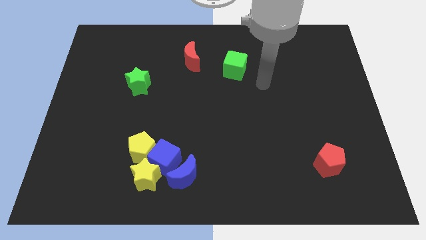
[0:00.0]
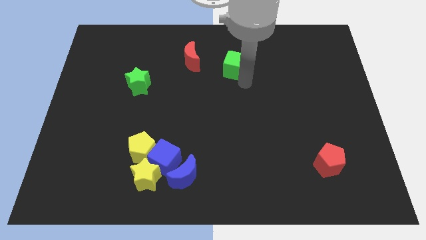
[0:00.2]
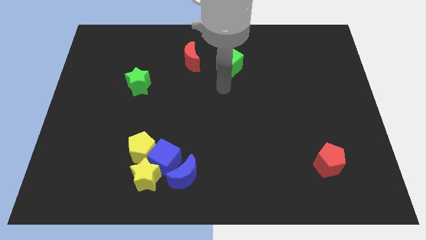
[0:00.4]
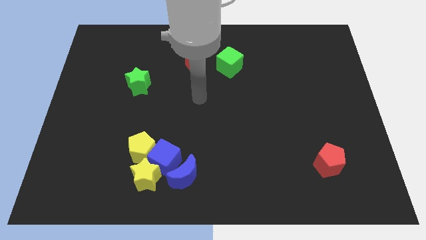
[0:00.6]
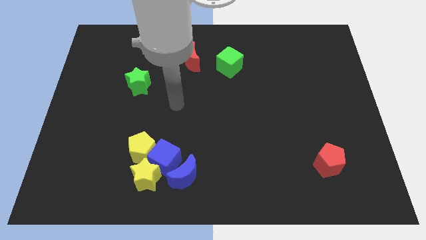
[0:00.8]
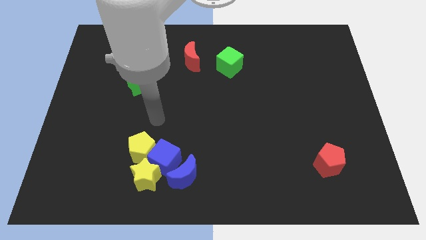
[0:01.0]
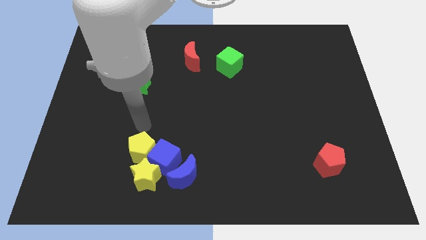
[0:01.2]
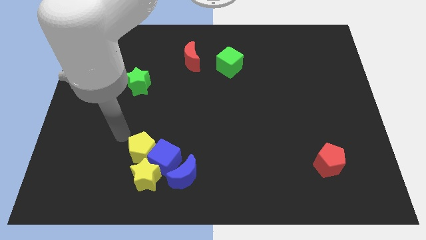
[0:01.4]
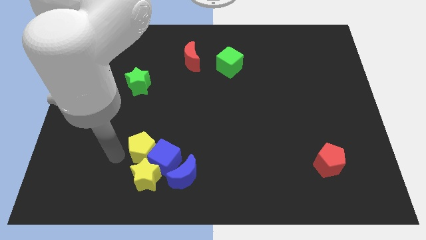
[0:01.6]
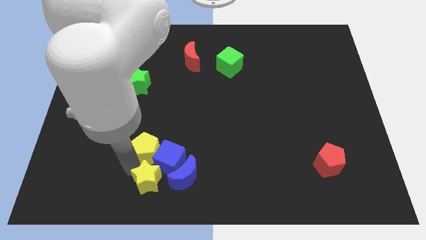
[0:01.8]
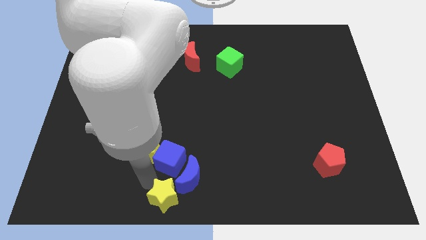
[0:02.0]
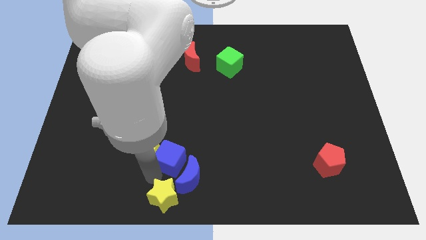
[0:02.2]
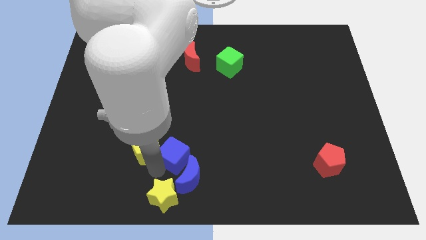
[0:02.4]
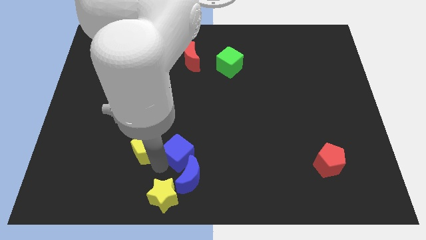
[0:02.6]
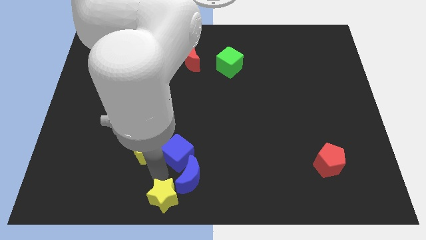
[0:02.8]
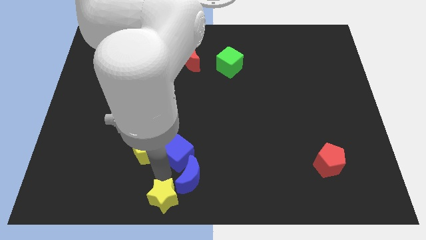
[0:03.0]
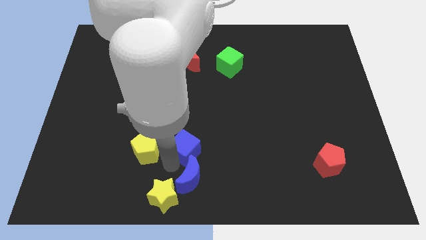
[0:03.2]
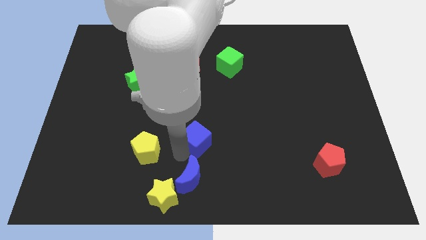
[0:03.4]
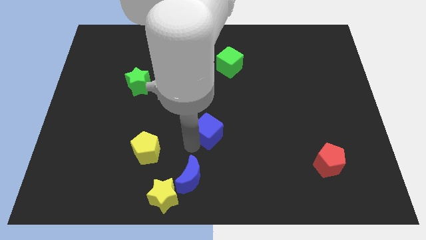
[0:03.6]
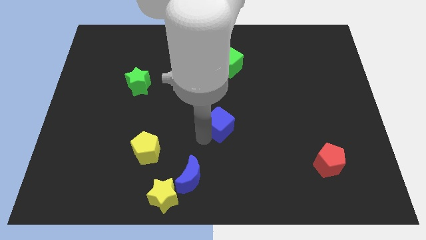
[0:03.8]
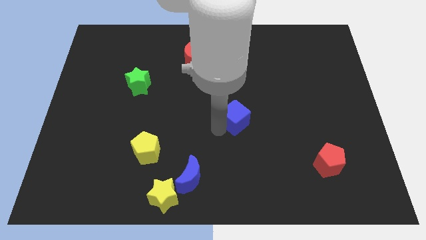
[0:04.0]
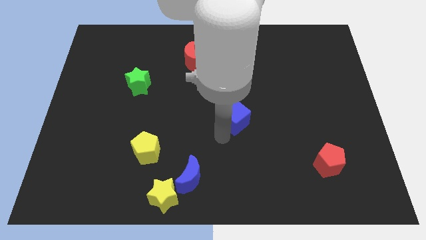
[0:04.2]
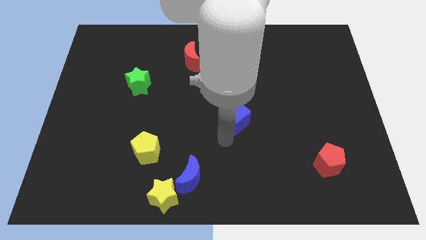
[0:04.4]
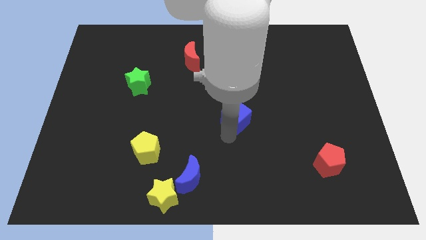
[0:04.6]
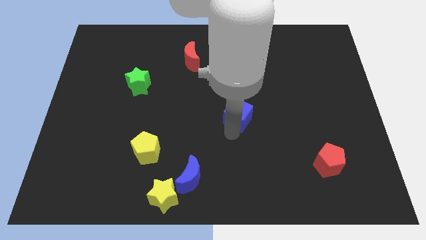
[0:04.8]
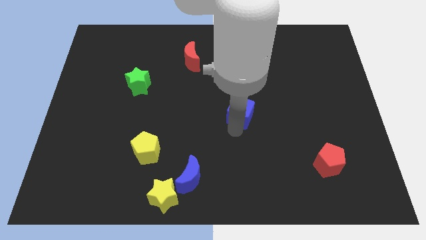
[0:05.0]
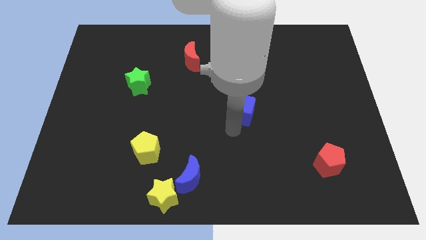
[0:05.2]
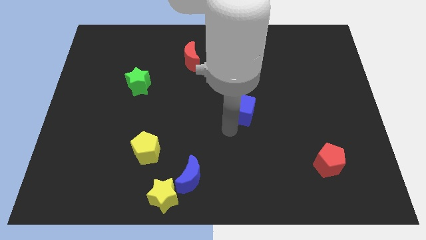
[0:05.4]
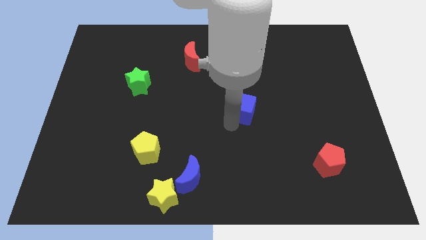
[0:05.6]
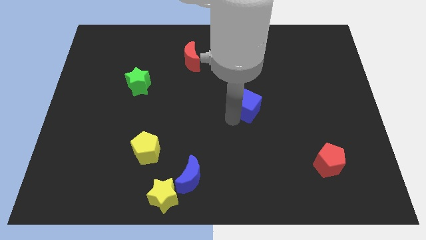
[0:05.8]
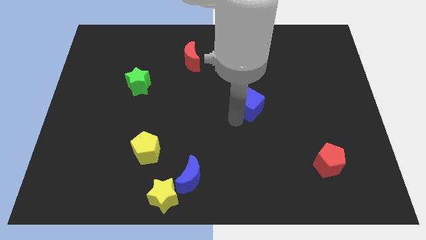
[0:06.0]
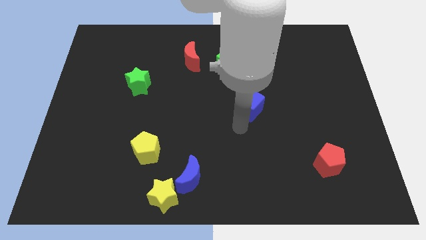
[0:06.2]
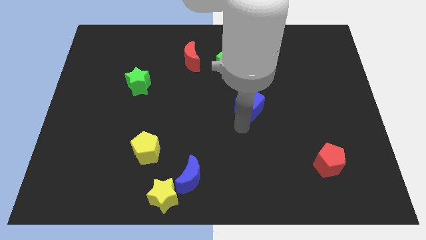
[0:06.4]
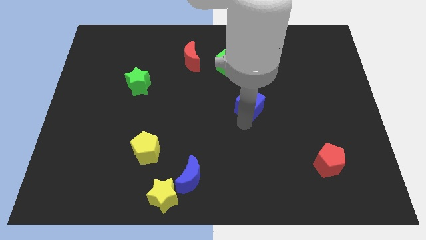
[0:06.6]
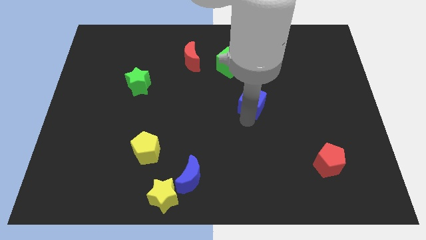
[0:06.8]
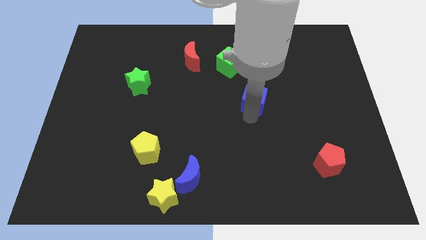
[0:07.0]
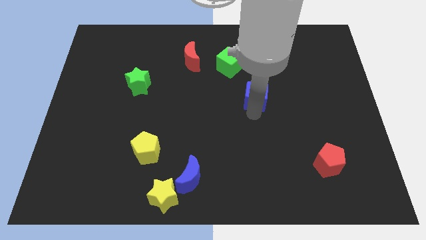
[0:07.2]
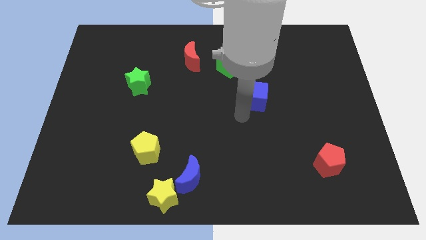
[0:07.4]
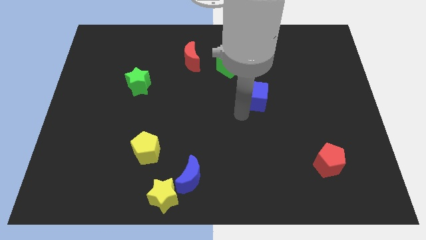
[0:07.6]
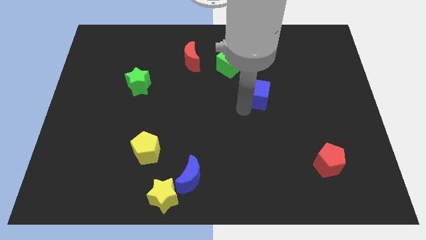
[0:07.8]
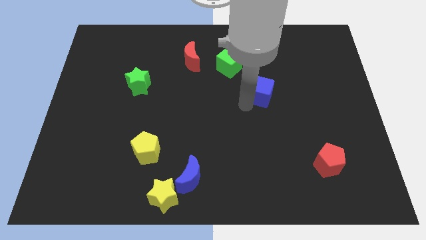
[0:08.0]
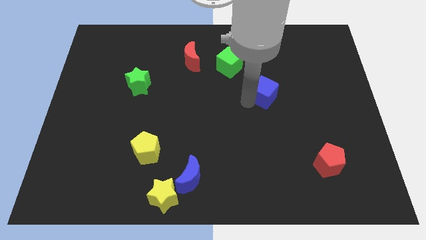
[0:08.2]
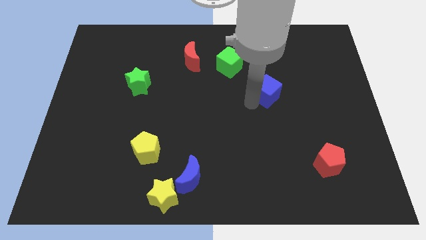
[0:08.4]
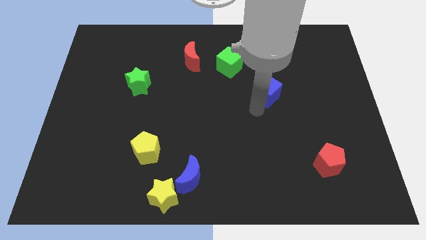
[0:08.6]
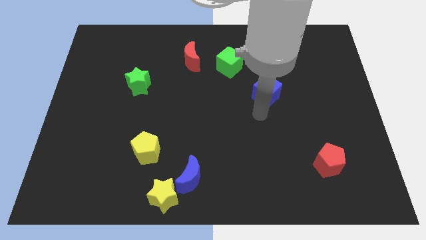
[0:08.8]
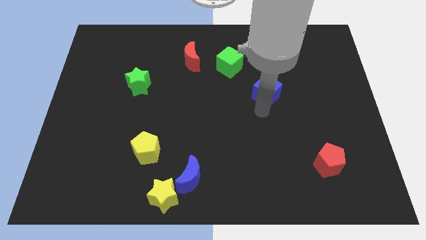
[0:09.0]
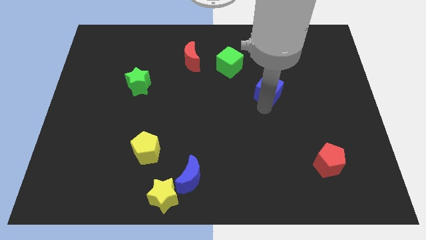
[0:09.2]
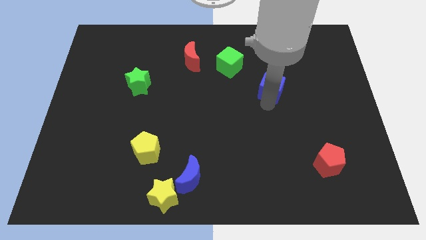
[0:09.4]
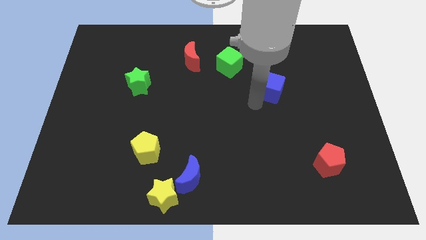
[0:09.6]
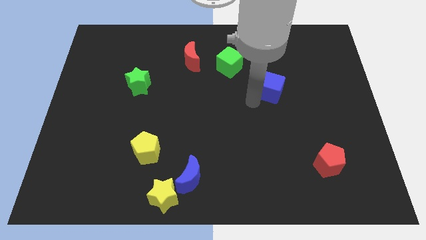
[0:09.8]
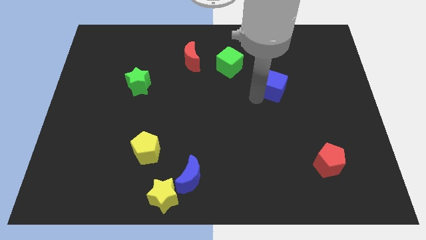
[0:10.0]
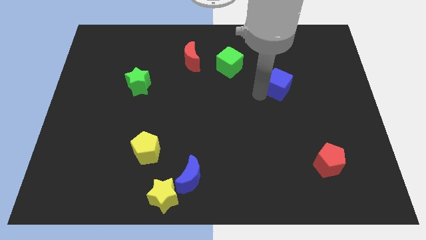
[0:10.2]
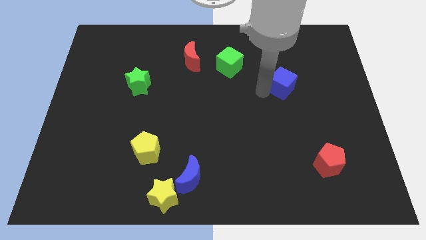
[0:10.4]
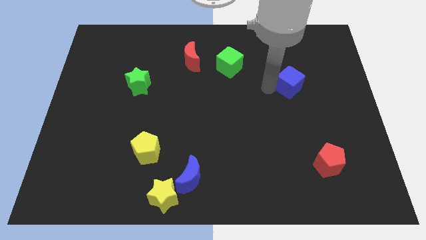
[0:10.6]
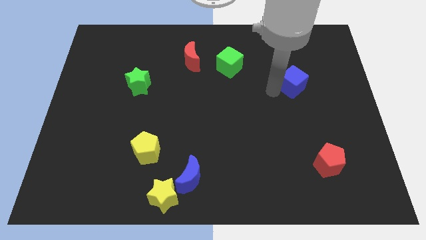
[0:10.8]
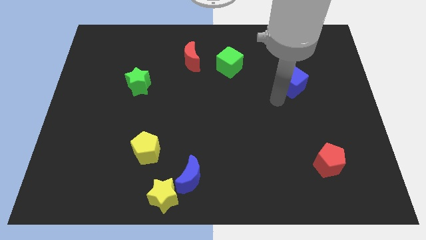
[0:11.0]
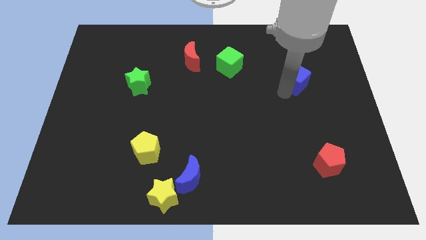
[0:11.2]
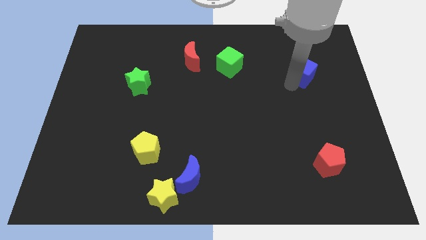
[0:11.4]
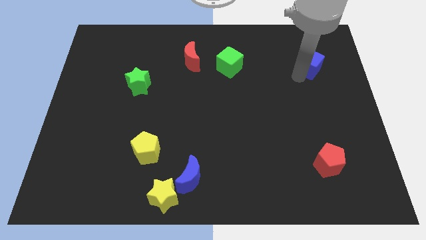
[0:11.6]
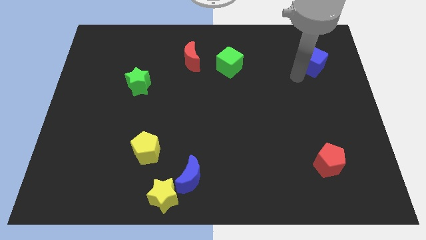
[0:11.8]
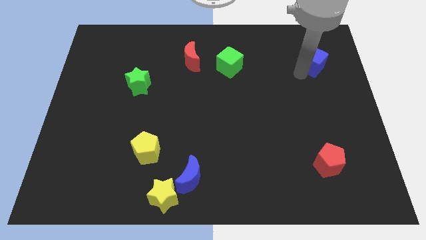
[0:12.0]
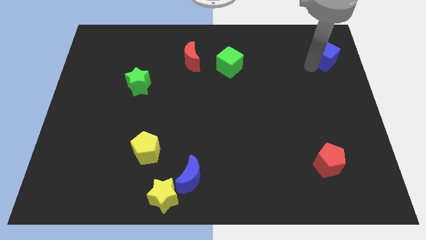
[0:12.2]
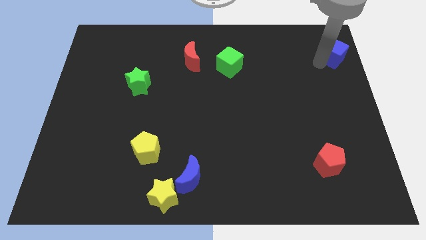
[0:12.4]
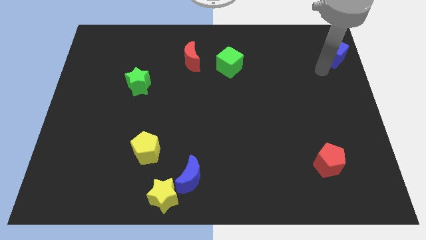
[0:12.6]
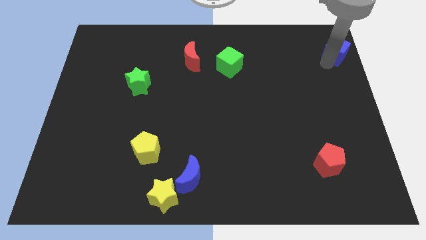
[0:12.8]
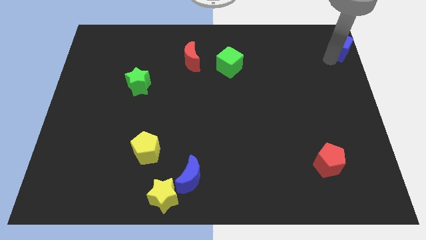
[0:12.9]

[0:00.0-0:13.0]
push the blue cube to the top right corner
